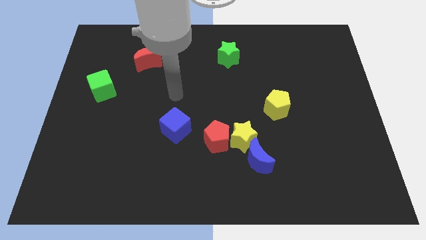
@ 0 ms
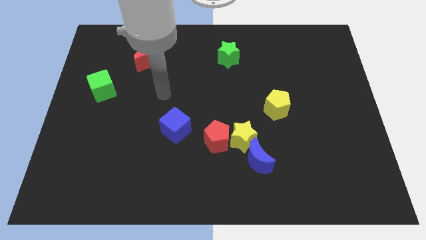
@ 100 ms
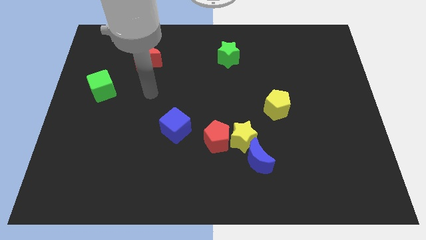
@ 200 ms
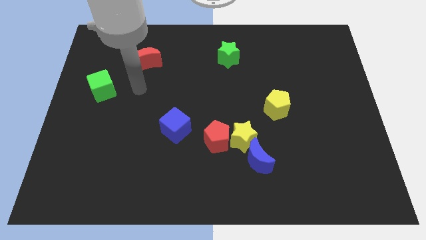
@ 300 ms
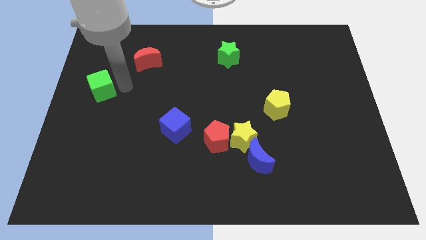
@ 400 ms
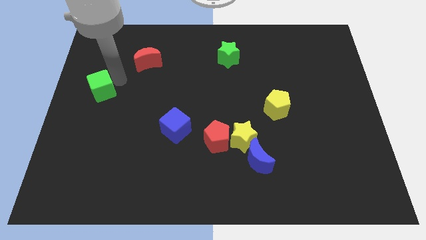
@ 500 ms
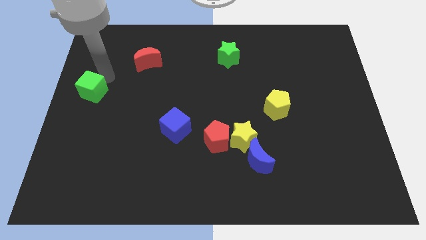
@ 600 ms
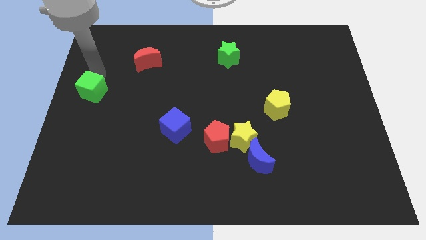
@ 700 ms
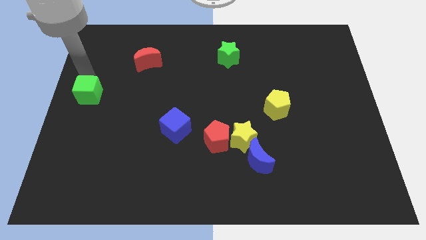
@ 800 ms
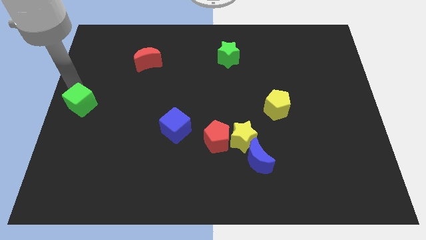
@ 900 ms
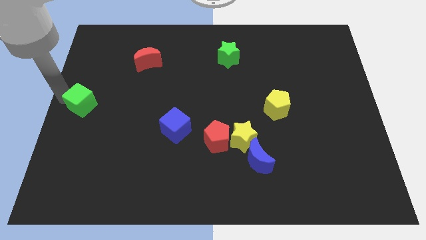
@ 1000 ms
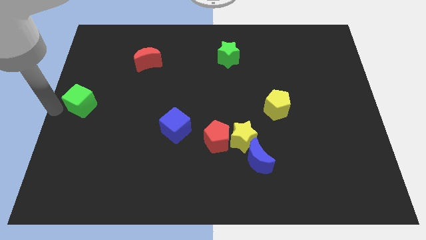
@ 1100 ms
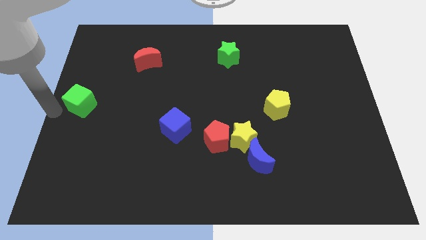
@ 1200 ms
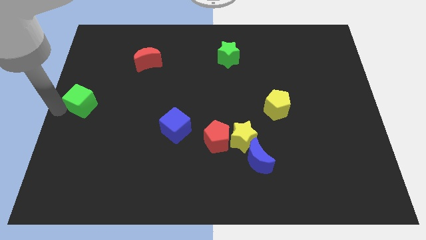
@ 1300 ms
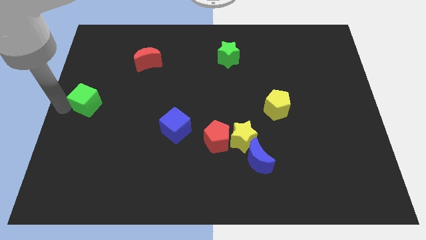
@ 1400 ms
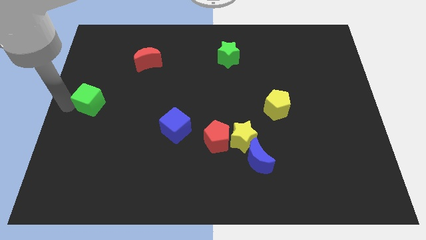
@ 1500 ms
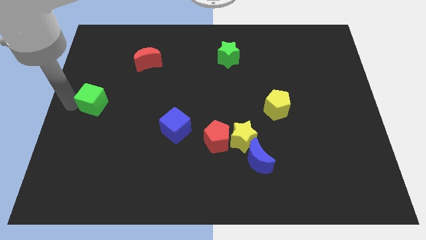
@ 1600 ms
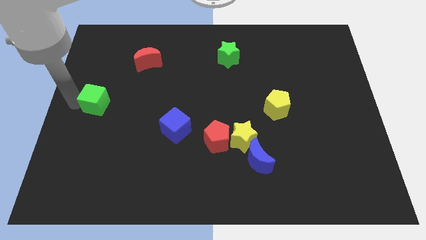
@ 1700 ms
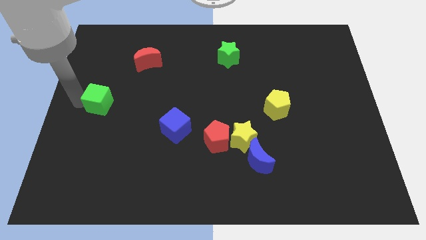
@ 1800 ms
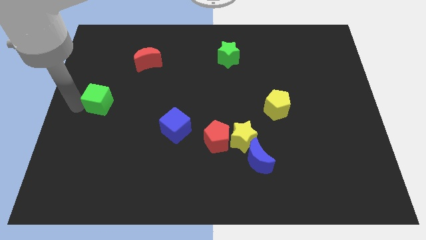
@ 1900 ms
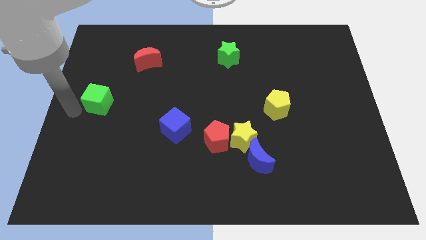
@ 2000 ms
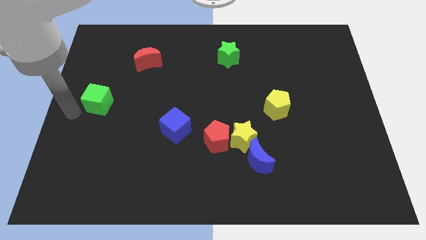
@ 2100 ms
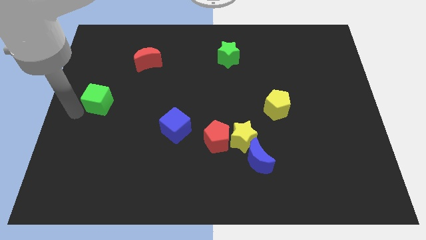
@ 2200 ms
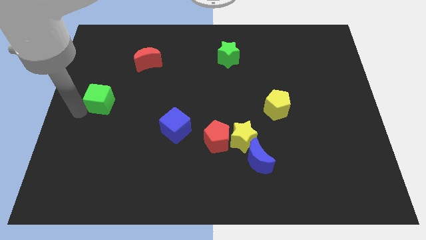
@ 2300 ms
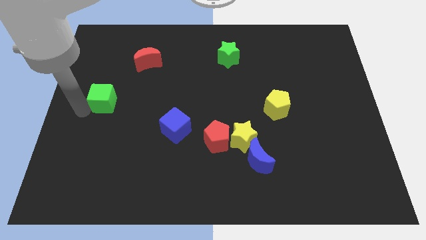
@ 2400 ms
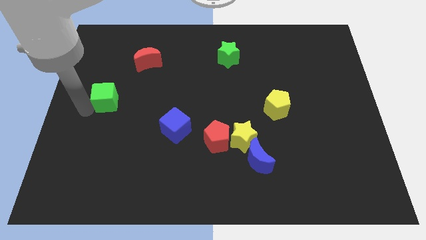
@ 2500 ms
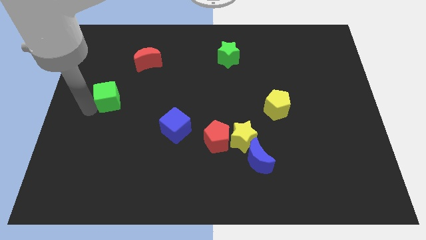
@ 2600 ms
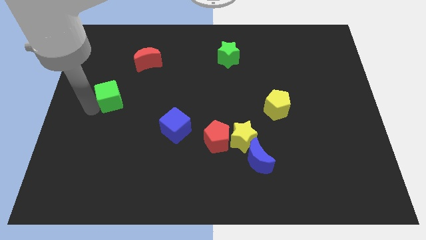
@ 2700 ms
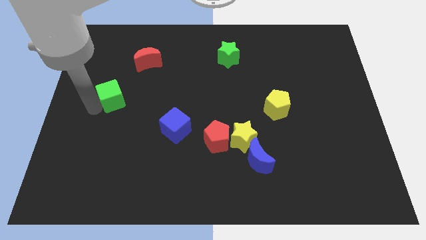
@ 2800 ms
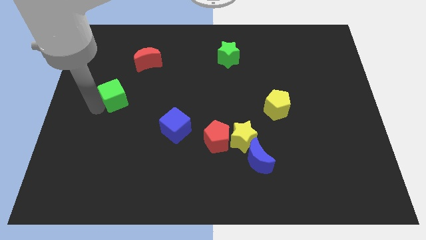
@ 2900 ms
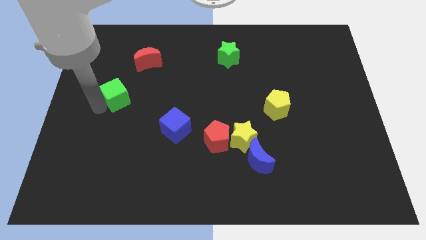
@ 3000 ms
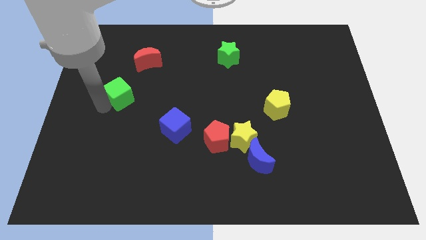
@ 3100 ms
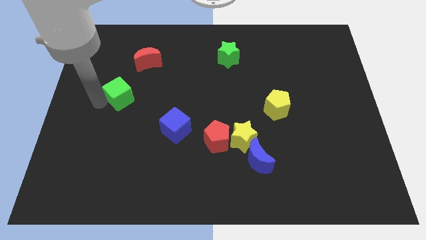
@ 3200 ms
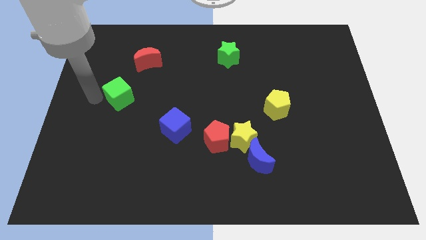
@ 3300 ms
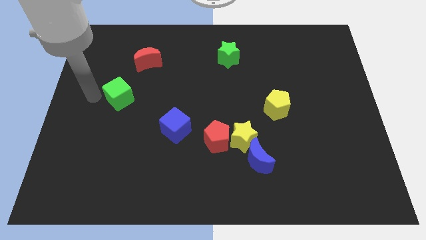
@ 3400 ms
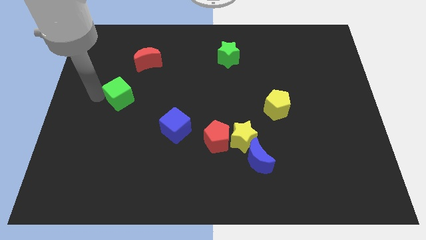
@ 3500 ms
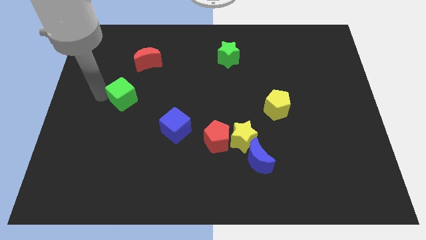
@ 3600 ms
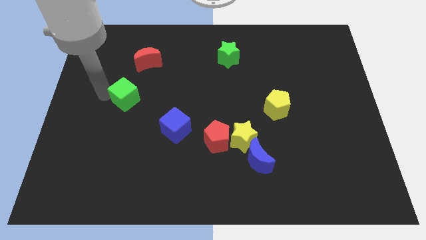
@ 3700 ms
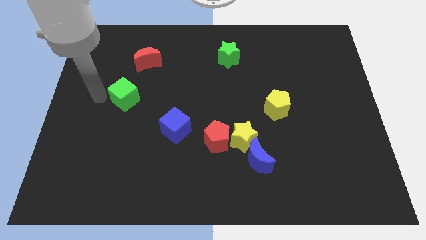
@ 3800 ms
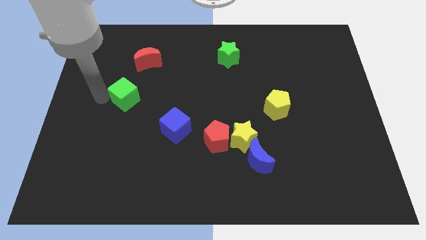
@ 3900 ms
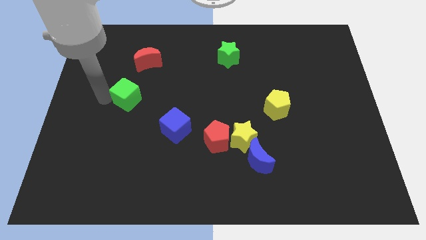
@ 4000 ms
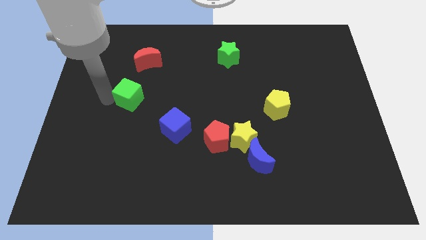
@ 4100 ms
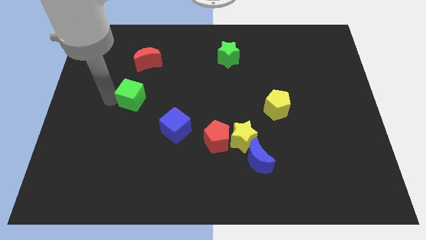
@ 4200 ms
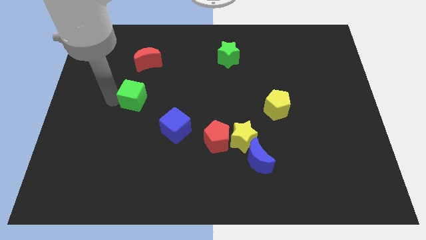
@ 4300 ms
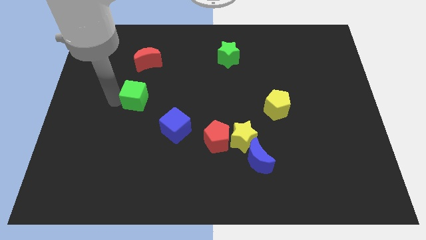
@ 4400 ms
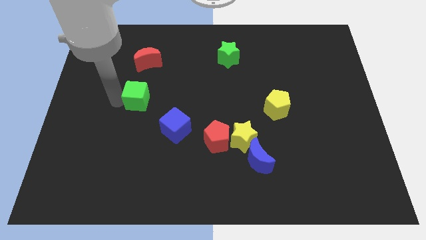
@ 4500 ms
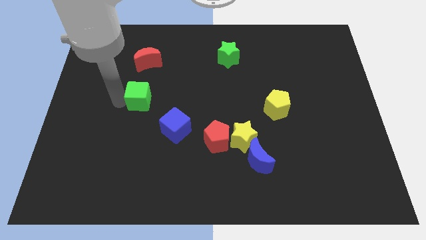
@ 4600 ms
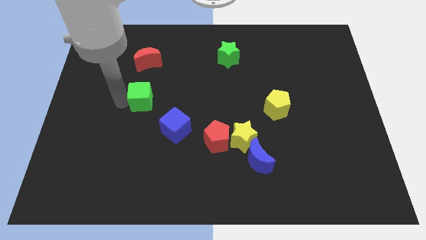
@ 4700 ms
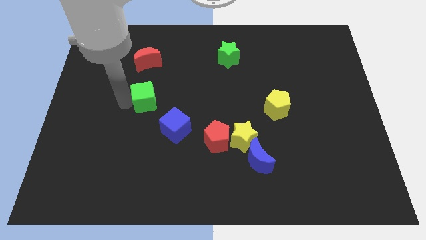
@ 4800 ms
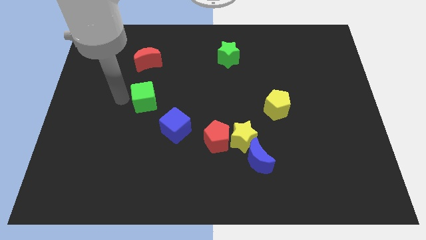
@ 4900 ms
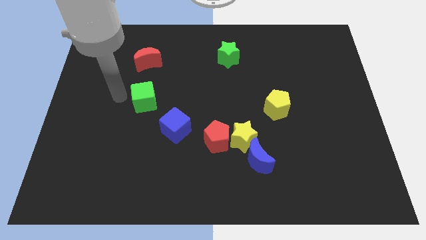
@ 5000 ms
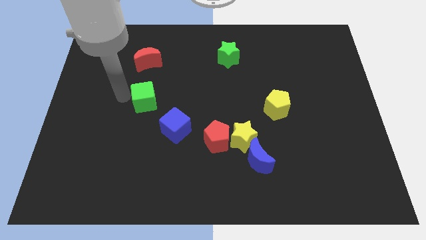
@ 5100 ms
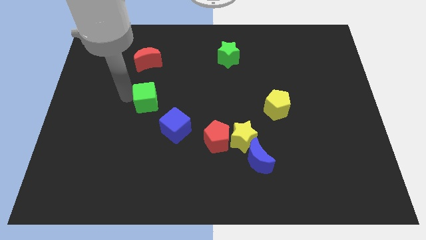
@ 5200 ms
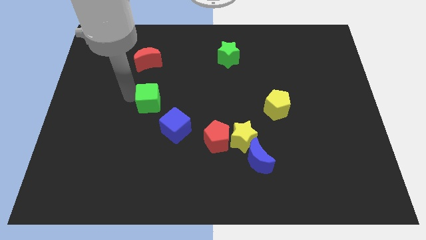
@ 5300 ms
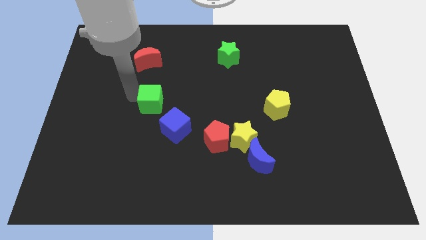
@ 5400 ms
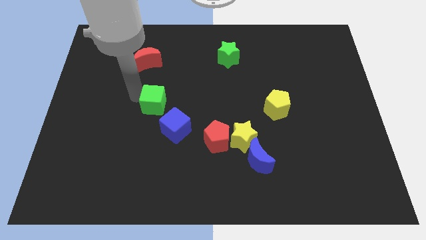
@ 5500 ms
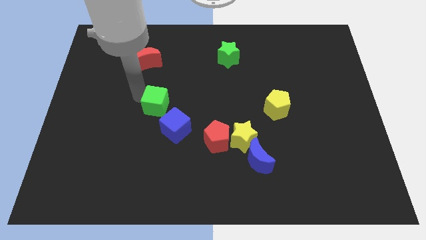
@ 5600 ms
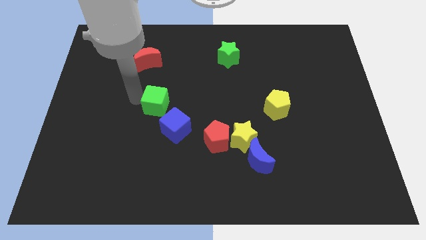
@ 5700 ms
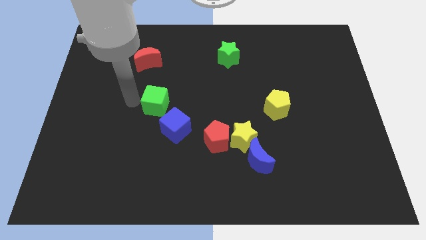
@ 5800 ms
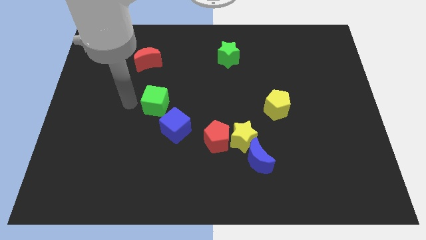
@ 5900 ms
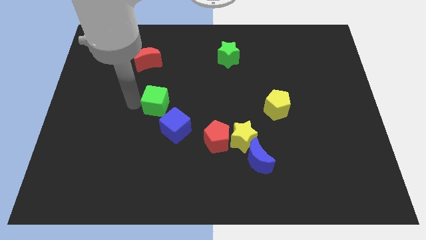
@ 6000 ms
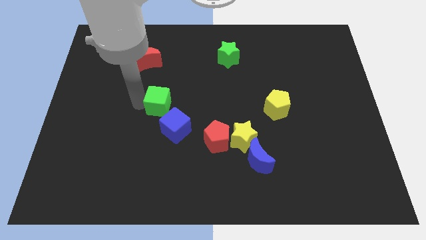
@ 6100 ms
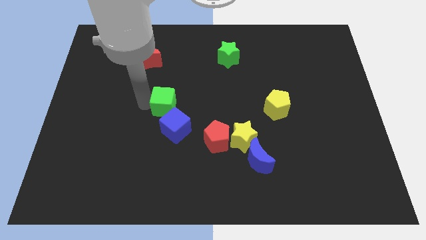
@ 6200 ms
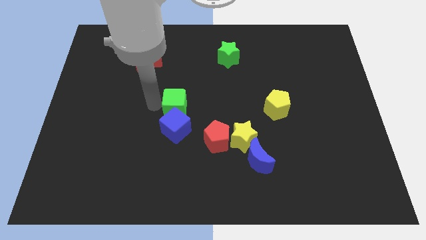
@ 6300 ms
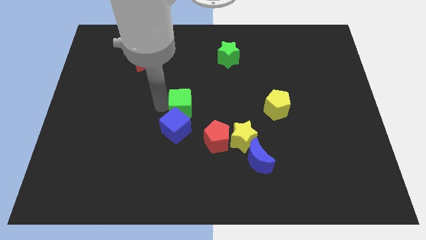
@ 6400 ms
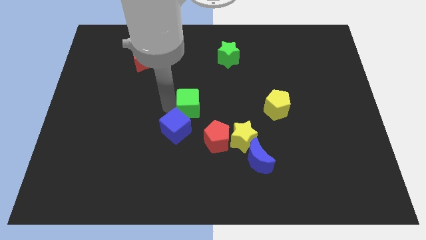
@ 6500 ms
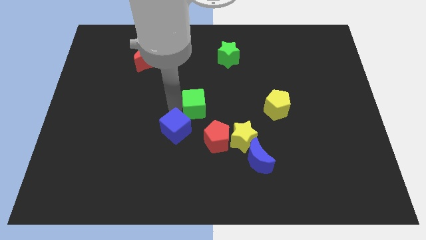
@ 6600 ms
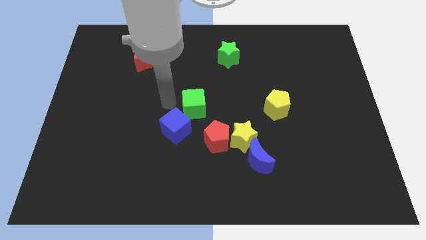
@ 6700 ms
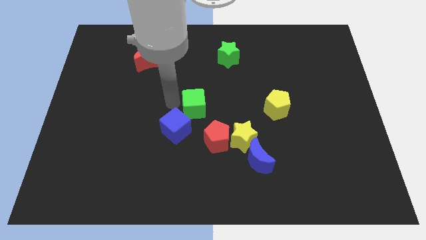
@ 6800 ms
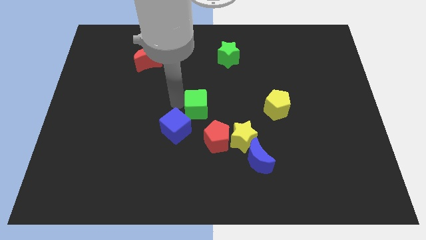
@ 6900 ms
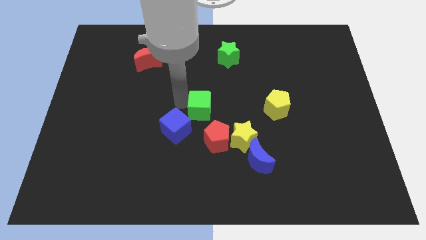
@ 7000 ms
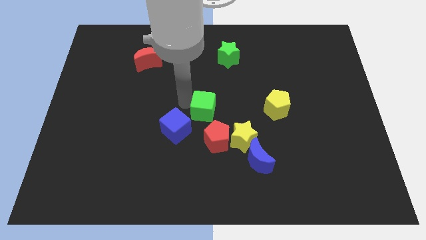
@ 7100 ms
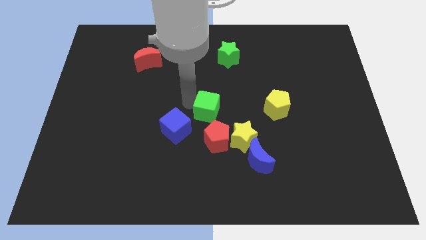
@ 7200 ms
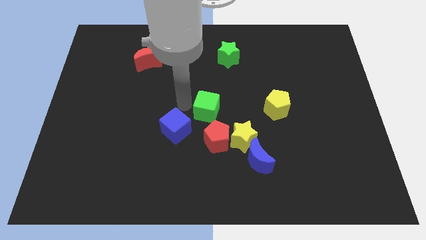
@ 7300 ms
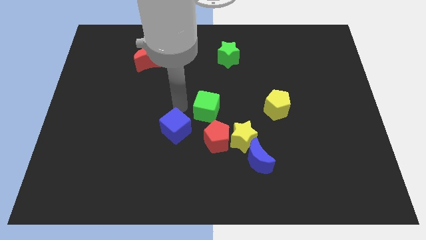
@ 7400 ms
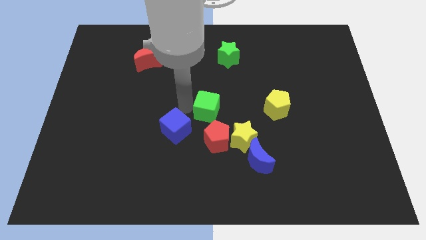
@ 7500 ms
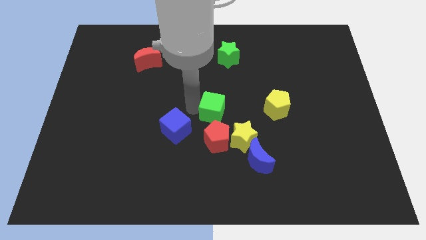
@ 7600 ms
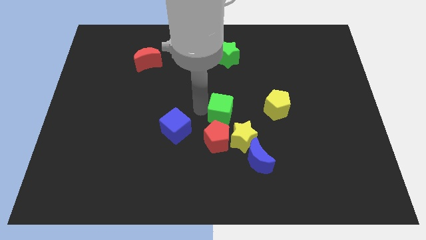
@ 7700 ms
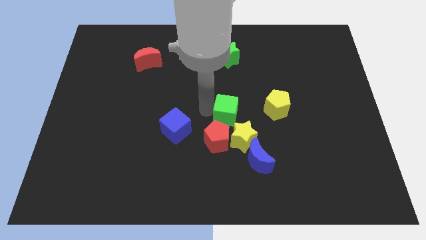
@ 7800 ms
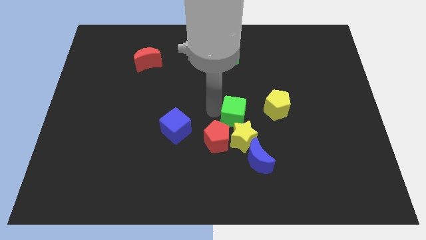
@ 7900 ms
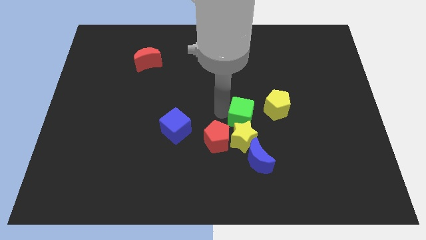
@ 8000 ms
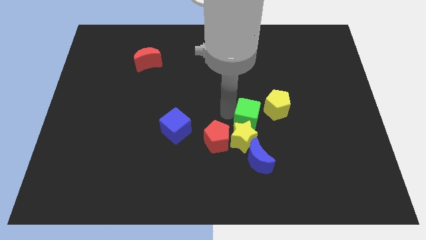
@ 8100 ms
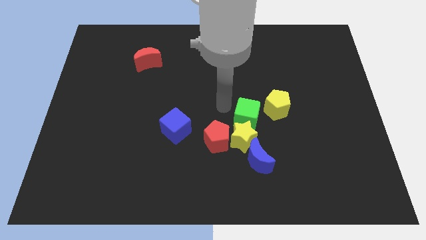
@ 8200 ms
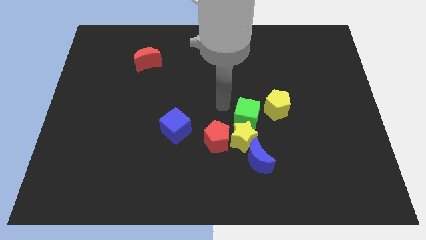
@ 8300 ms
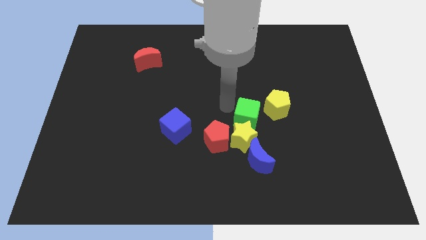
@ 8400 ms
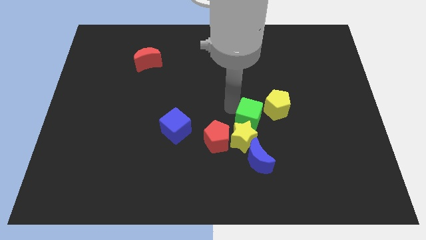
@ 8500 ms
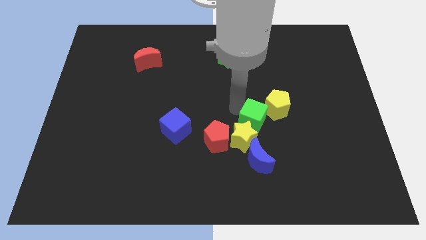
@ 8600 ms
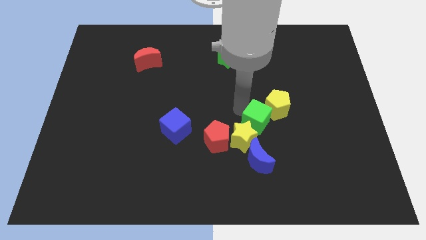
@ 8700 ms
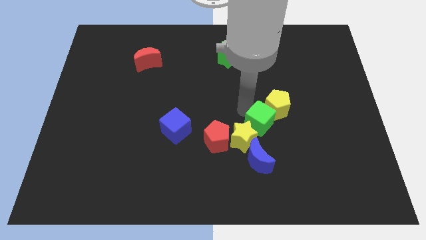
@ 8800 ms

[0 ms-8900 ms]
push the green cube to the right side of the yellow star
